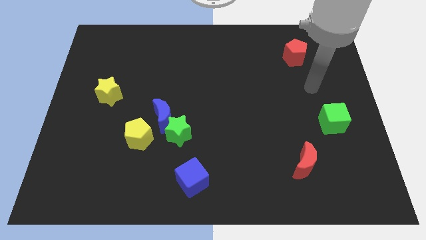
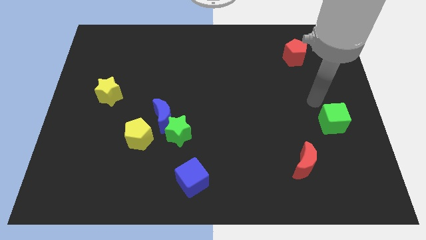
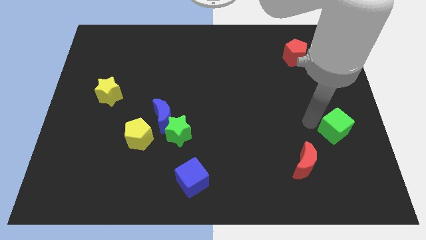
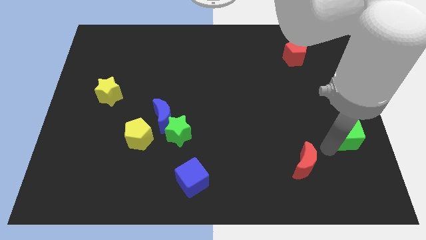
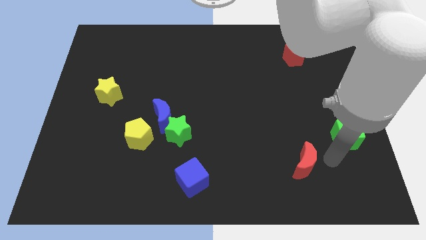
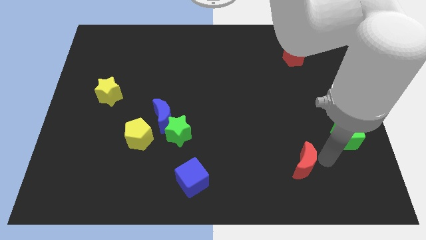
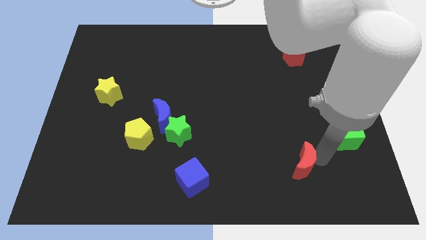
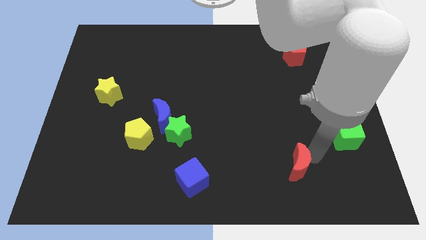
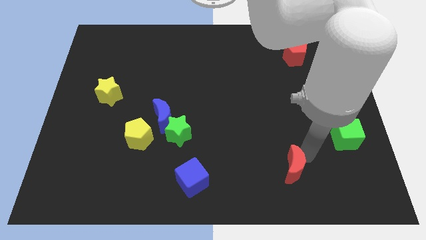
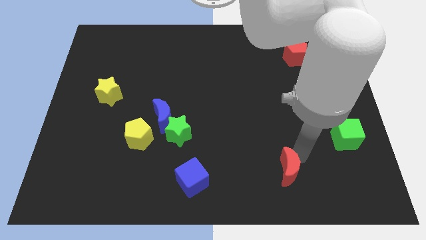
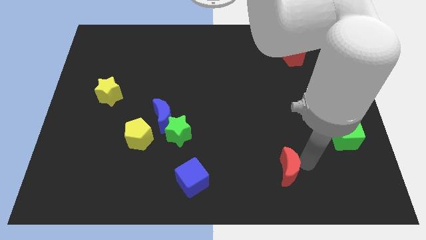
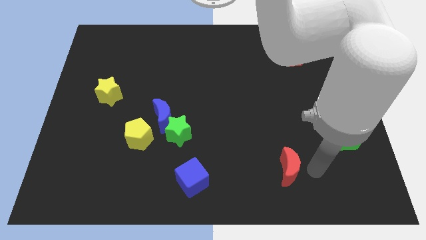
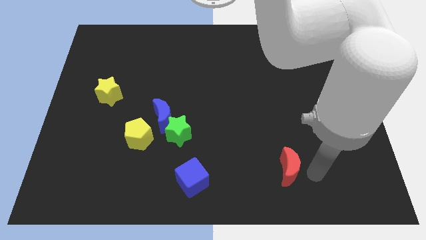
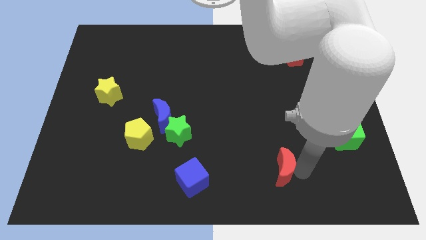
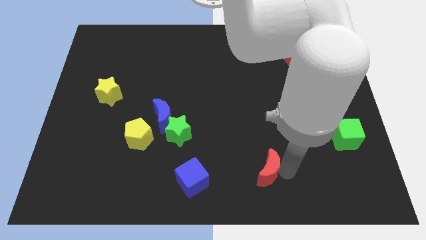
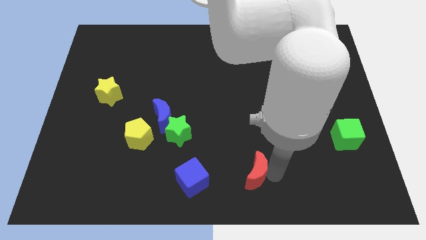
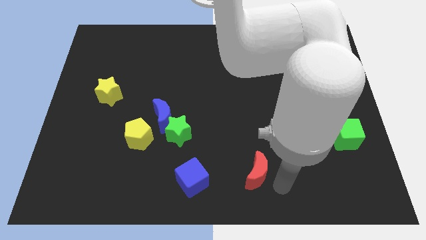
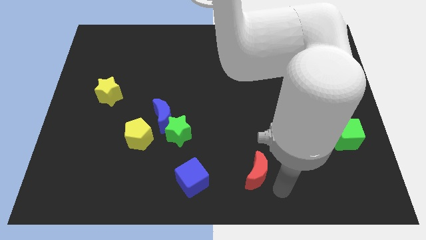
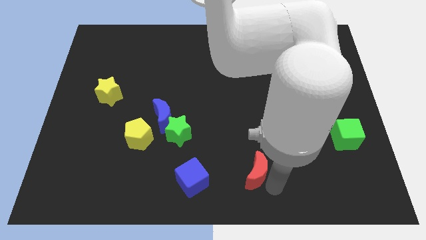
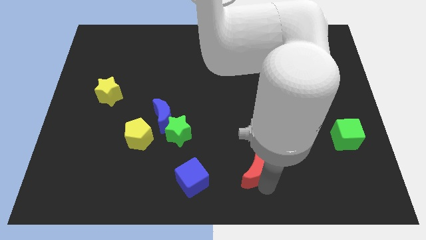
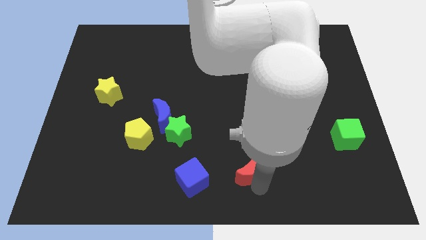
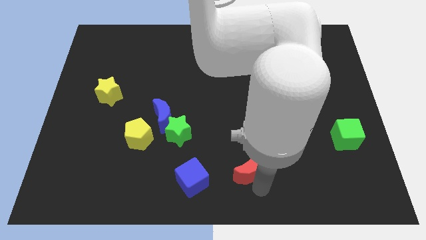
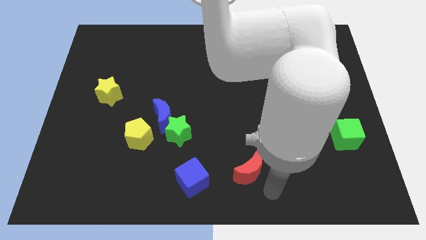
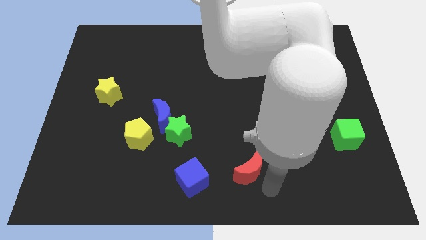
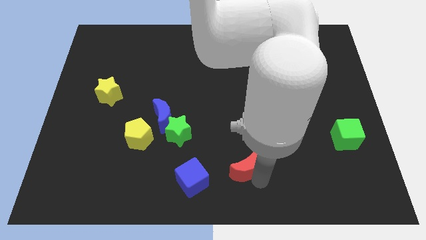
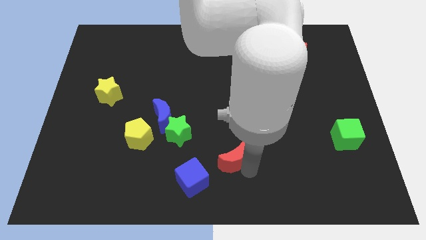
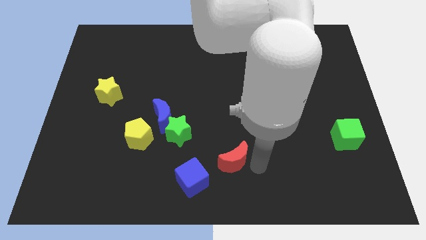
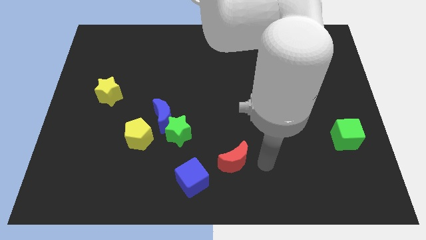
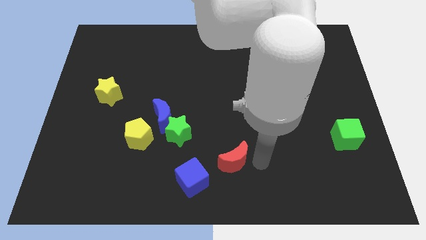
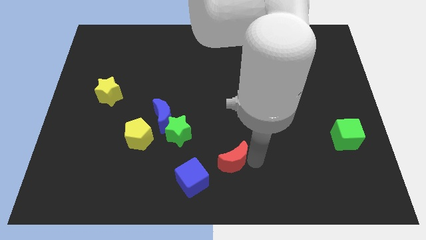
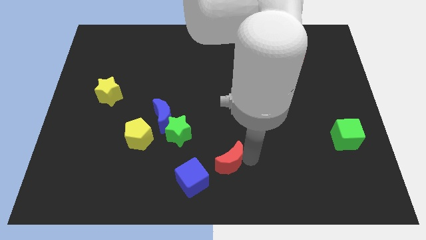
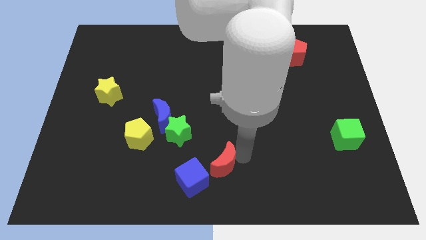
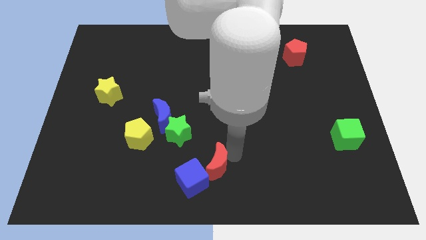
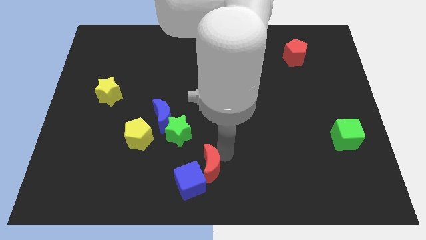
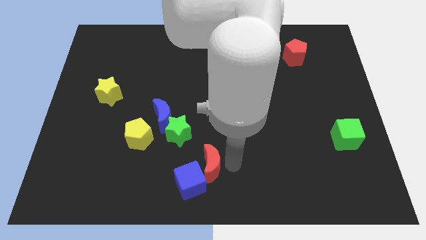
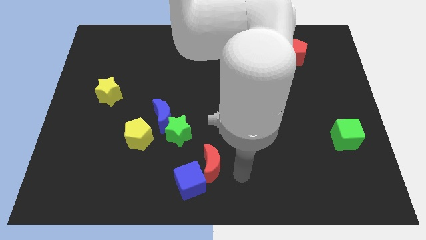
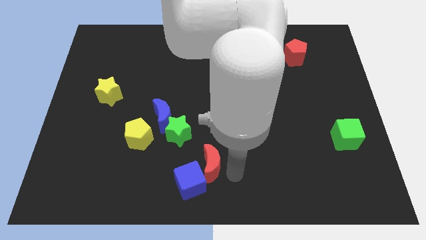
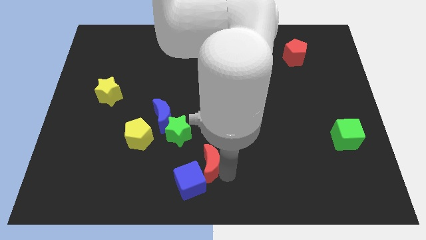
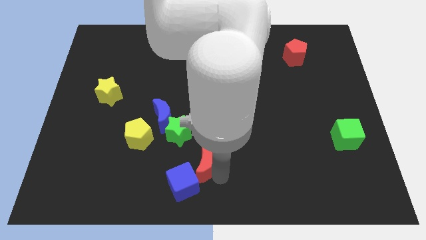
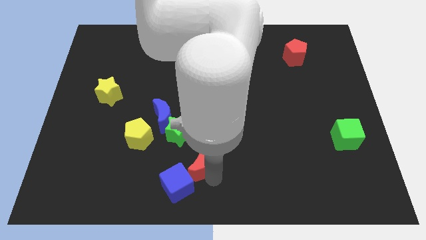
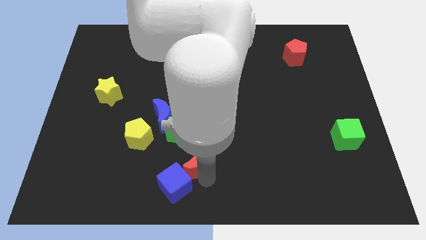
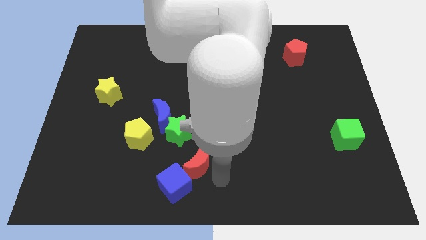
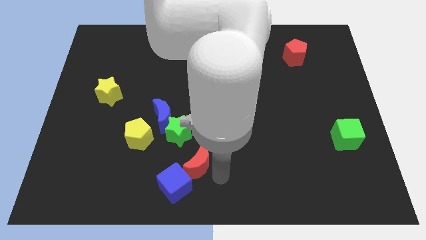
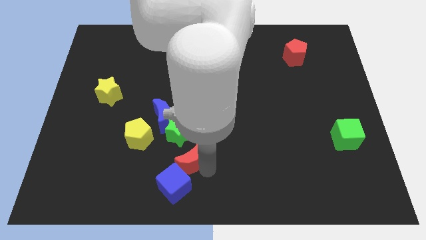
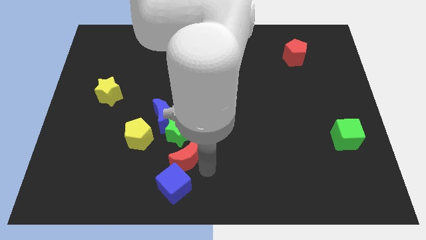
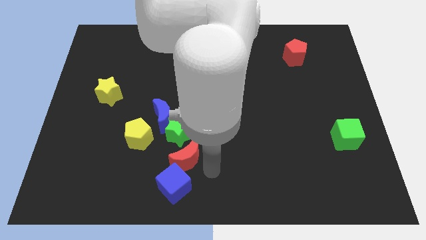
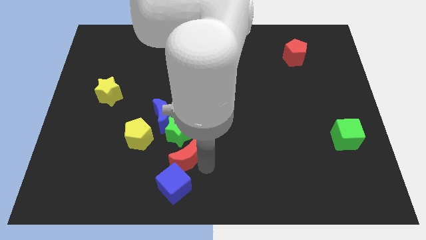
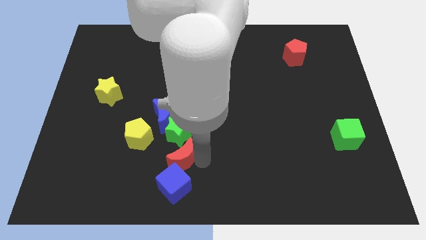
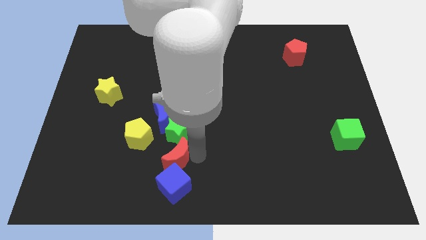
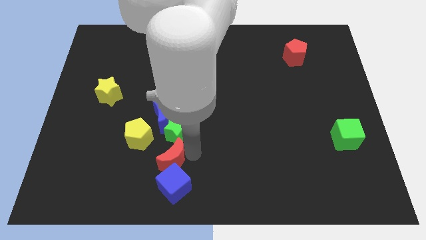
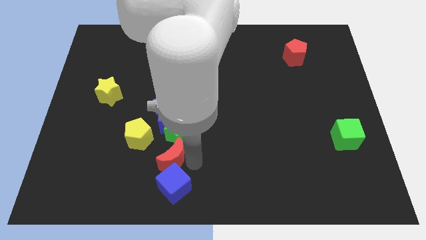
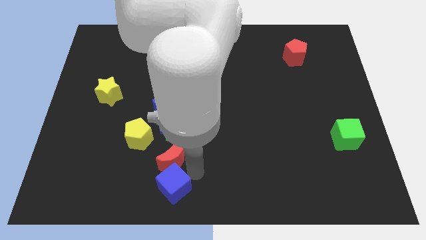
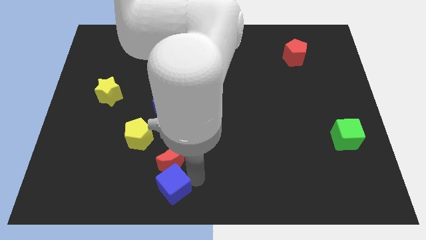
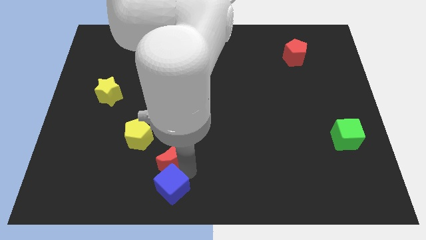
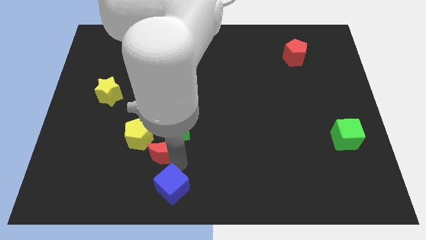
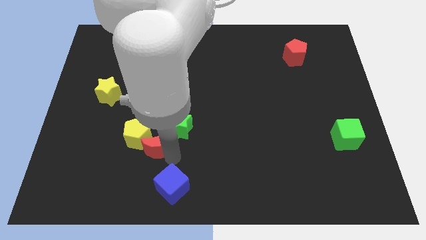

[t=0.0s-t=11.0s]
slide the red moon next to the yellow pentagon

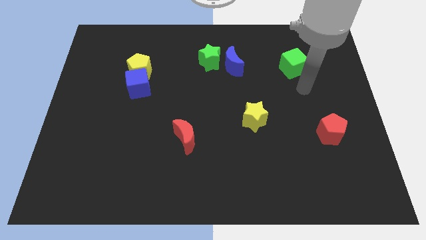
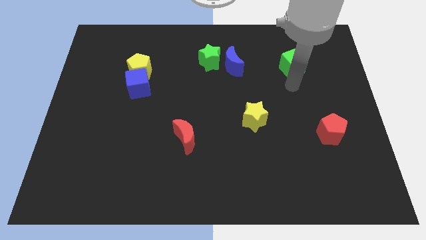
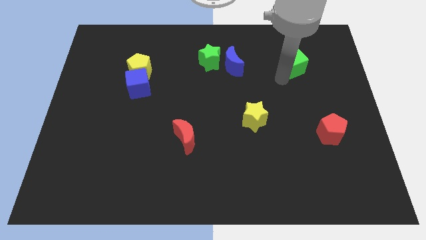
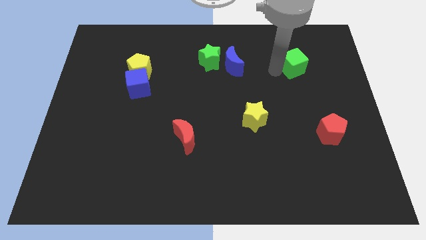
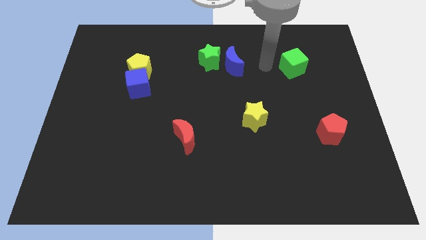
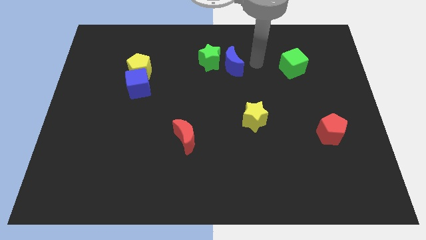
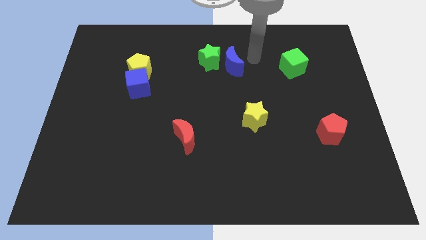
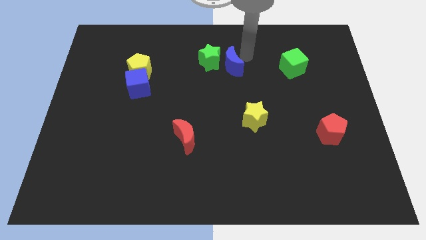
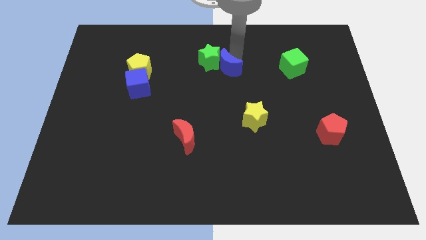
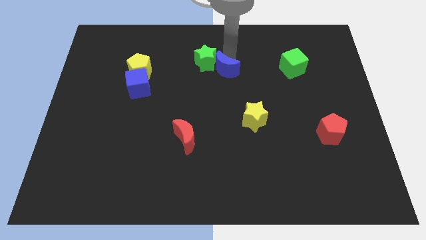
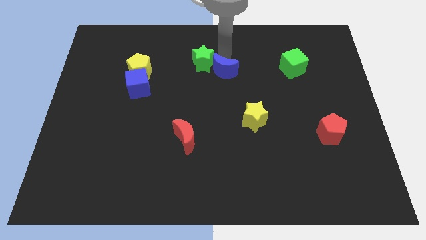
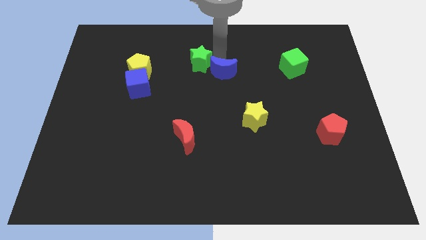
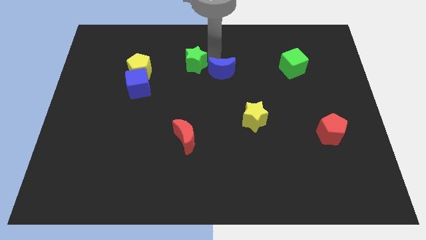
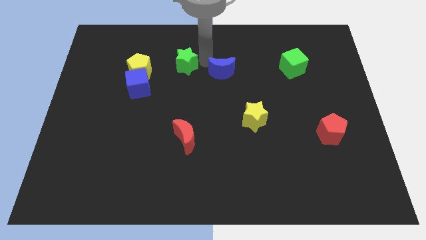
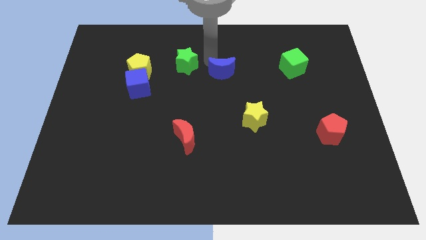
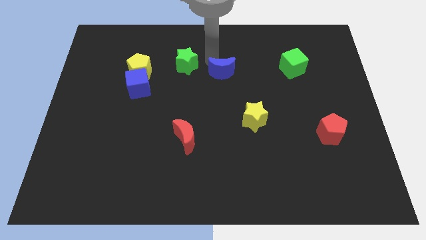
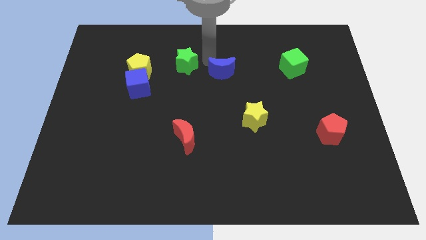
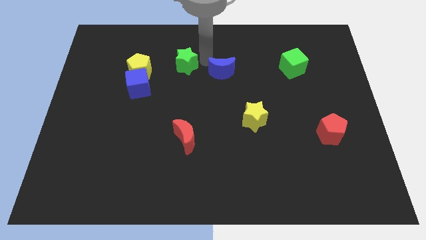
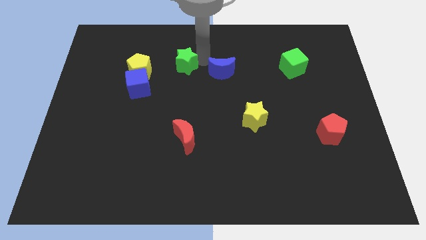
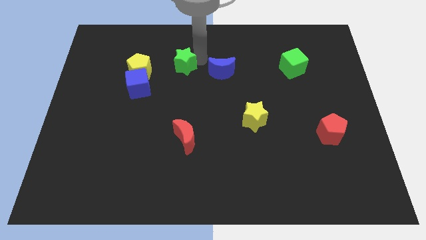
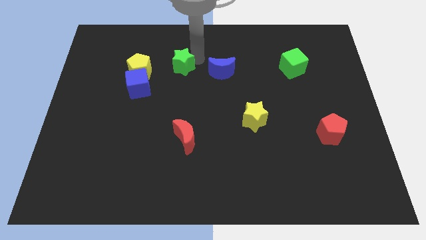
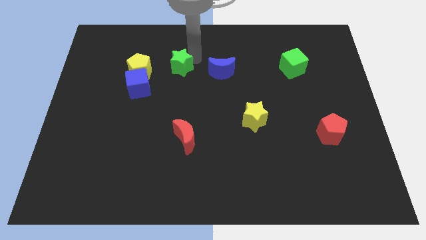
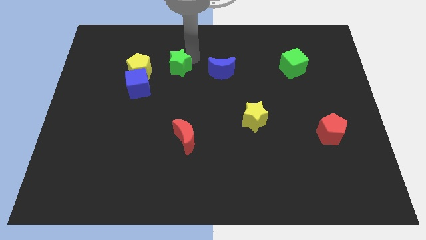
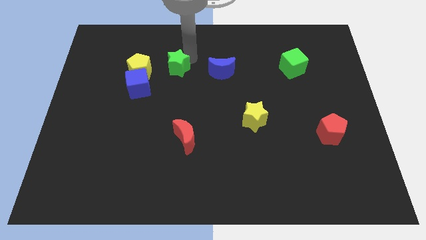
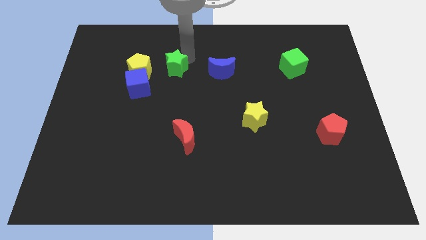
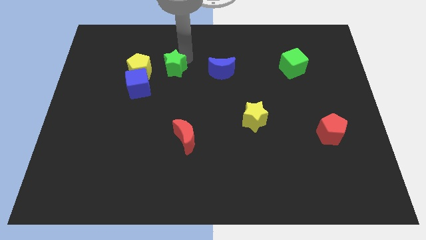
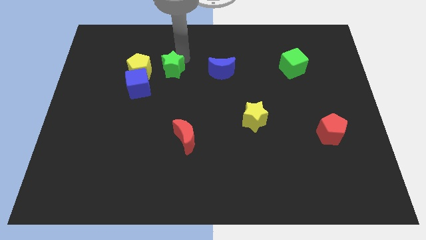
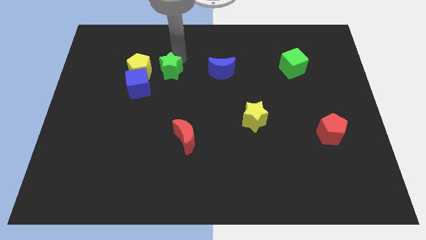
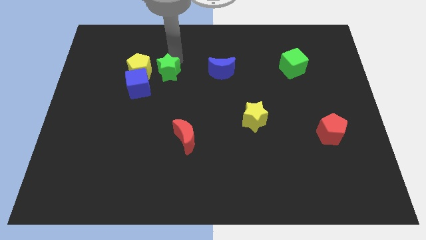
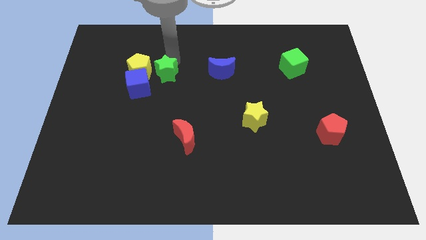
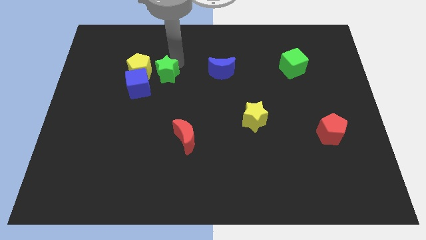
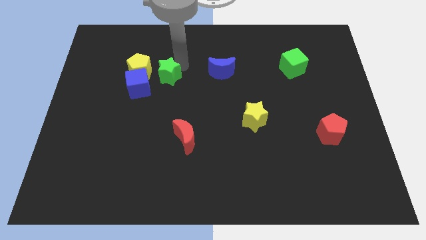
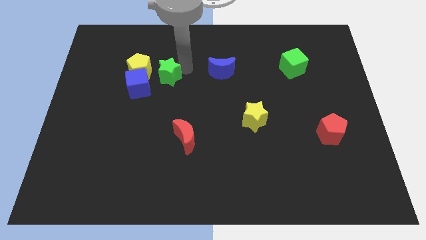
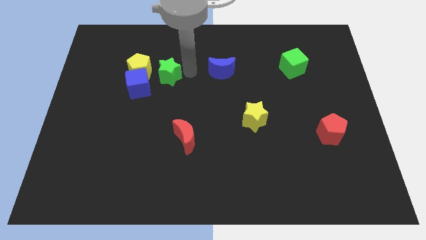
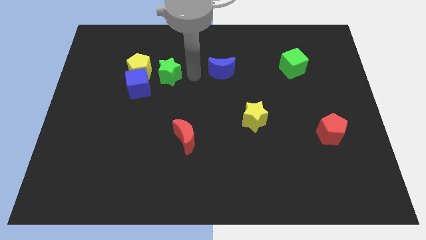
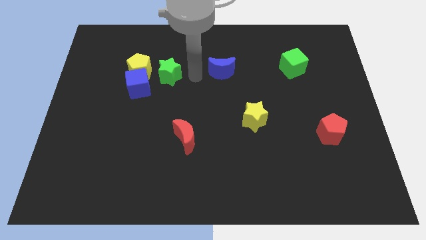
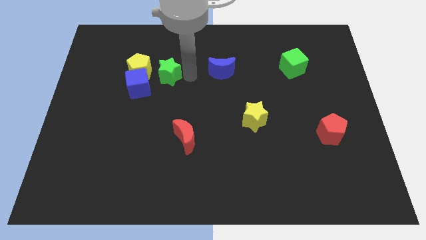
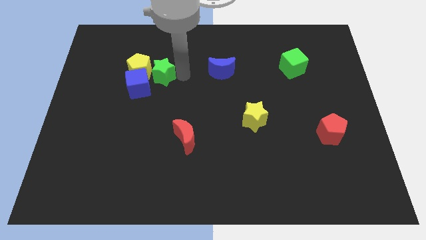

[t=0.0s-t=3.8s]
slide the green star close to the yellow pentagon
